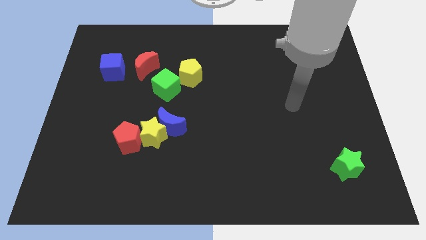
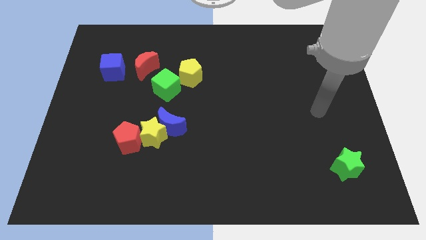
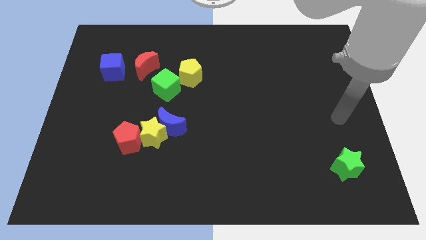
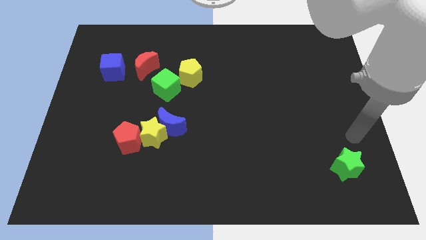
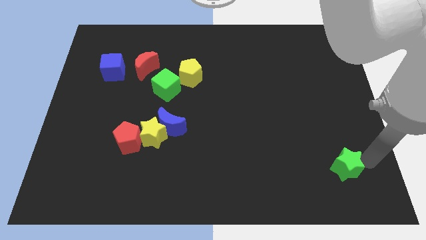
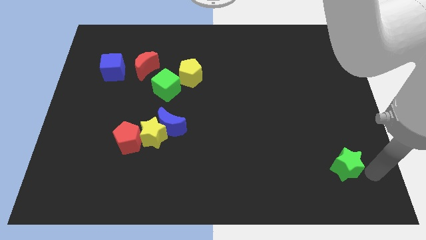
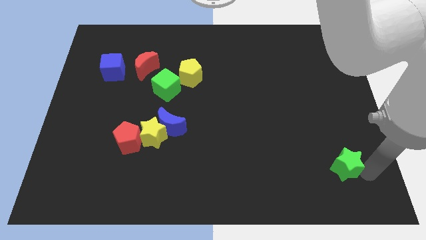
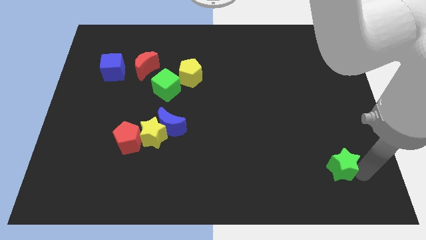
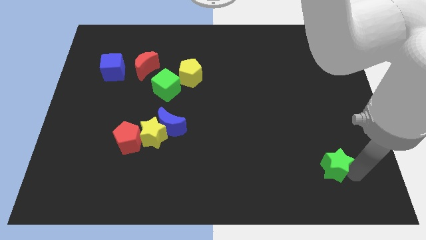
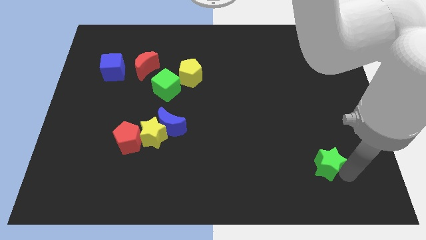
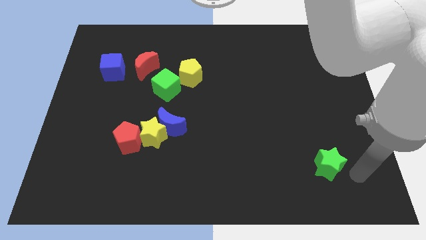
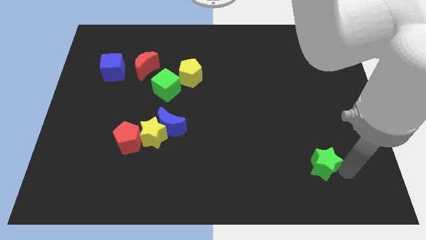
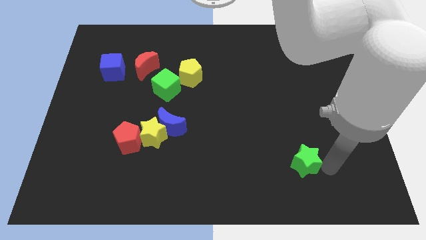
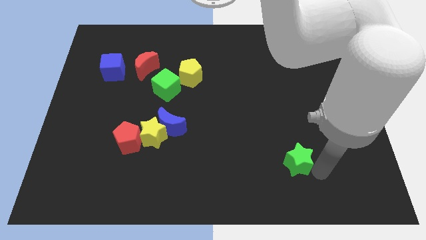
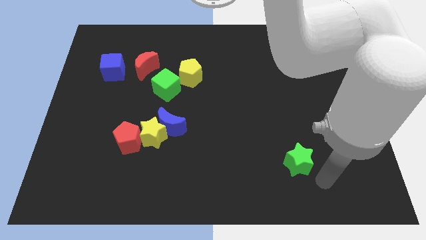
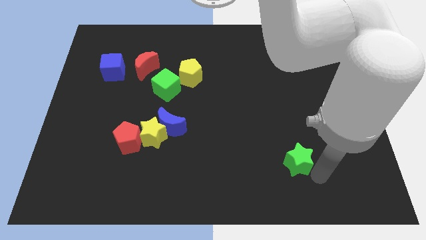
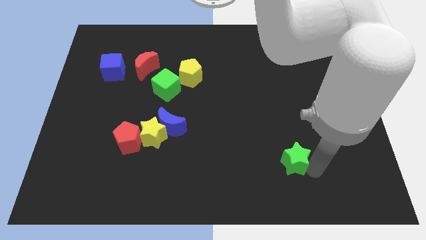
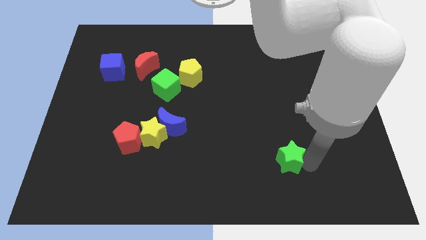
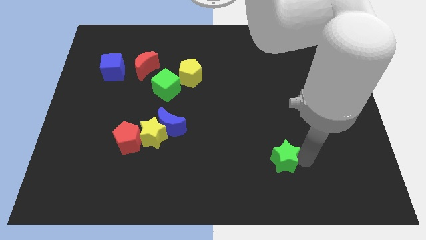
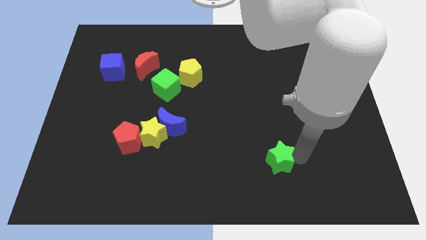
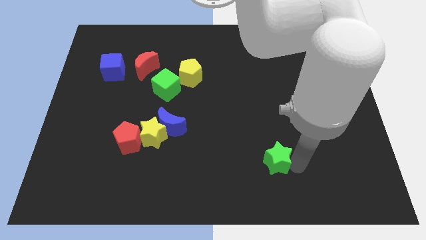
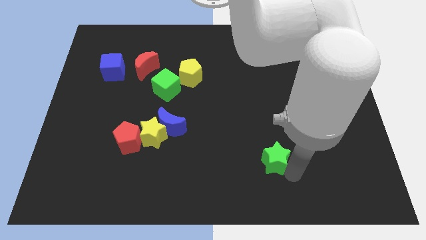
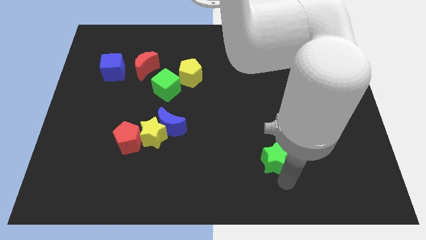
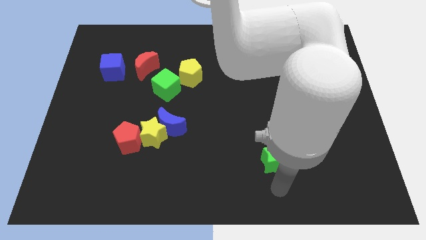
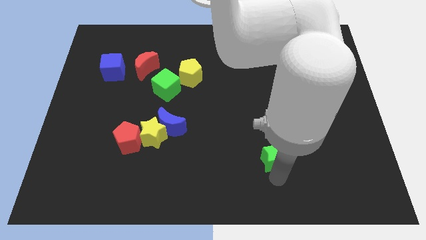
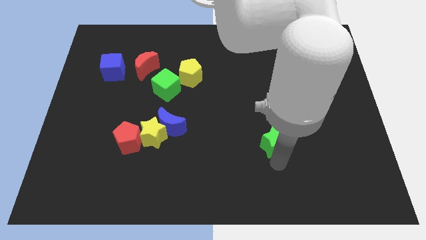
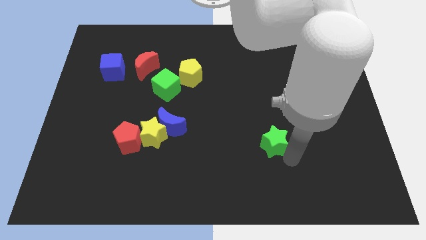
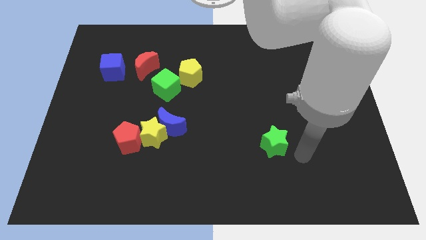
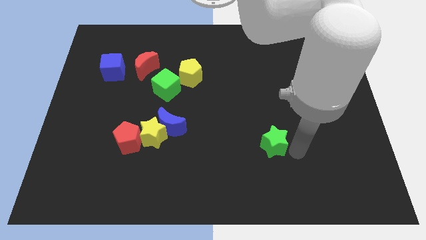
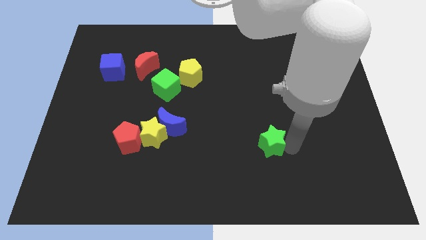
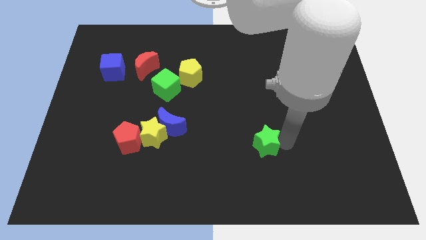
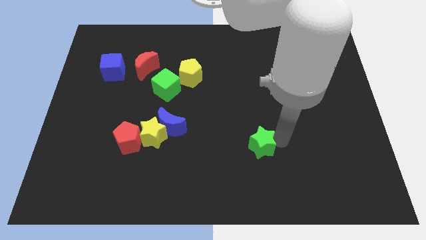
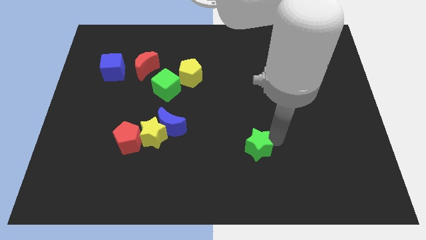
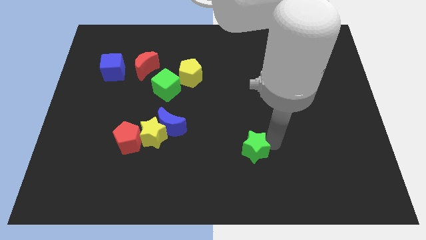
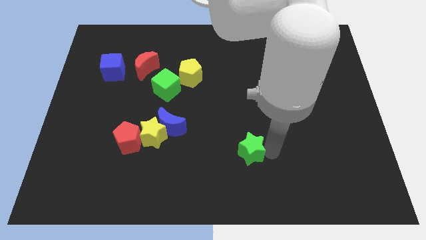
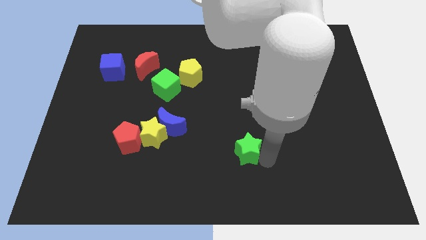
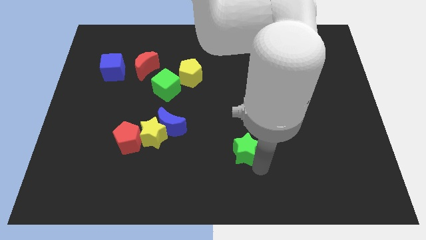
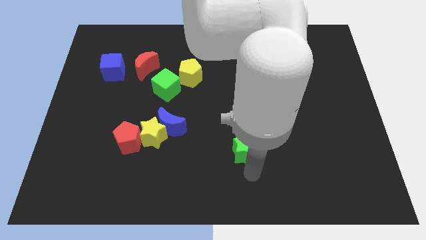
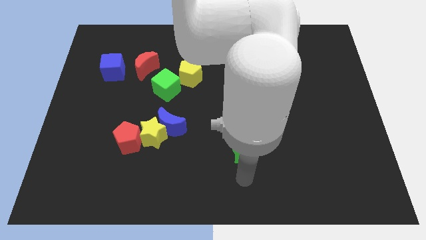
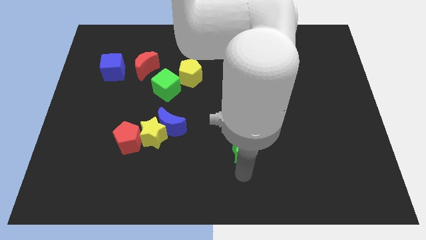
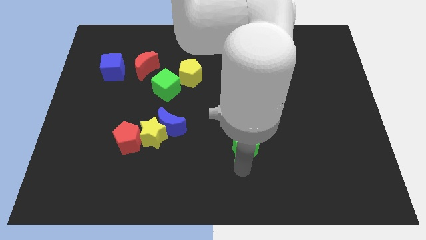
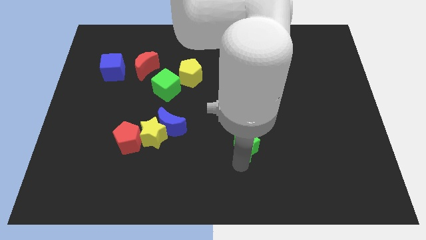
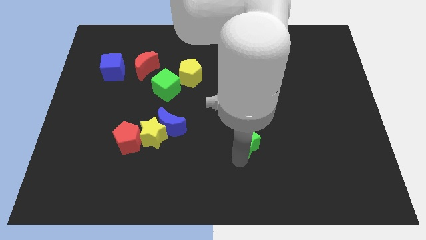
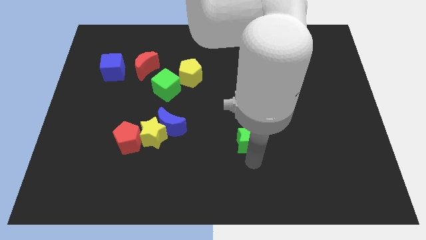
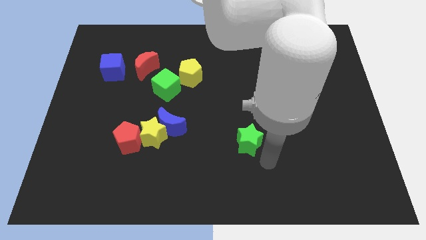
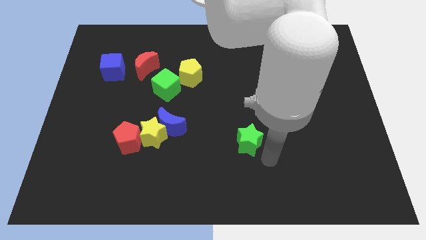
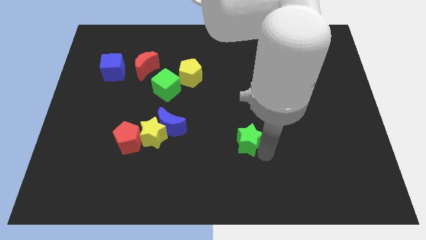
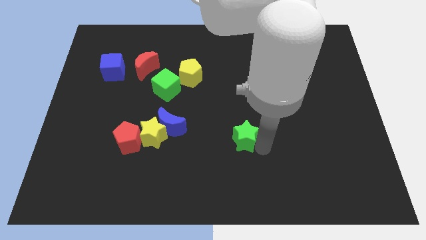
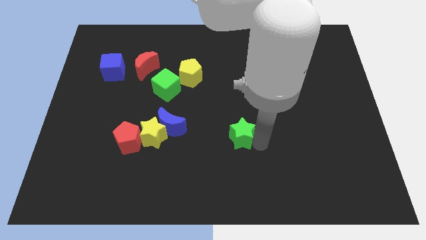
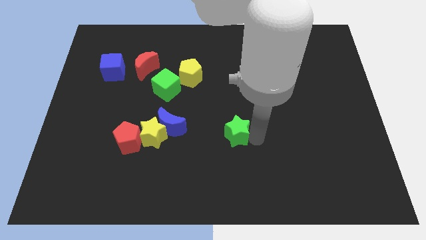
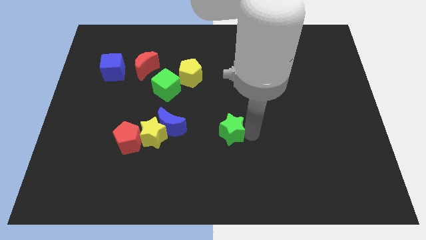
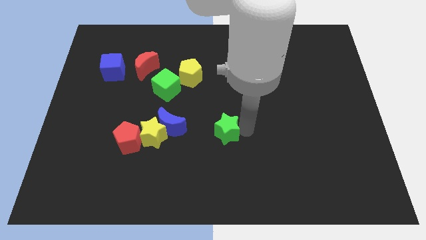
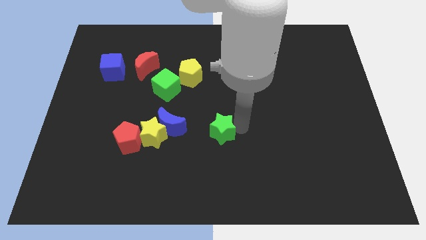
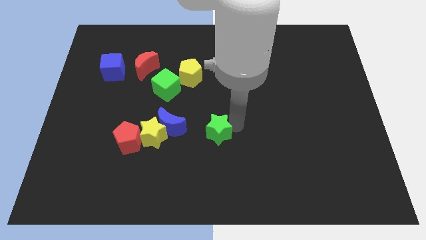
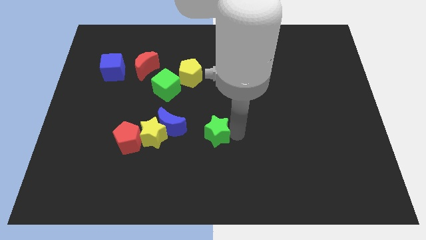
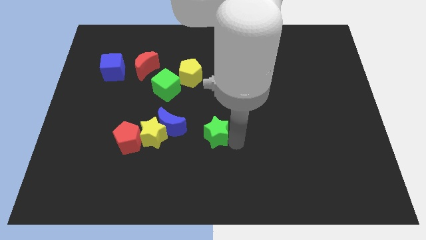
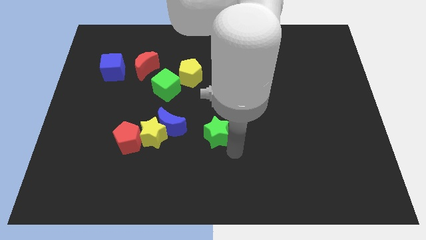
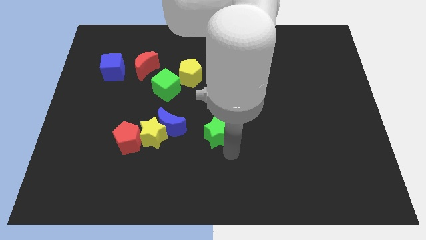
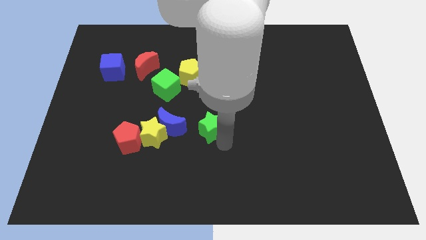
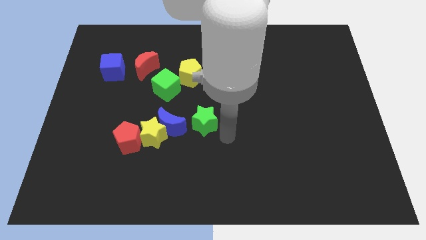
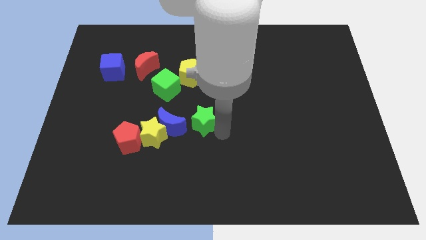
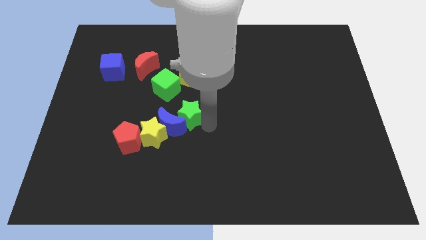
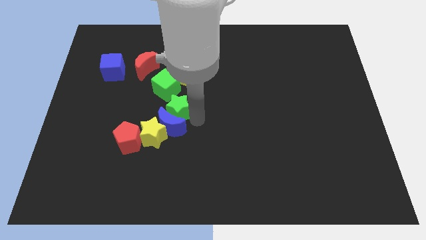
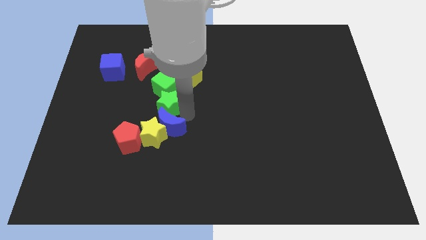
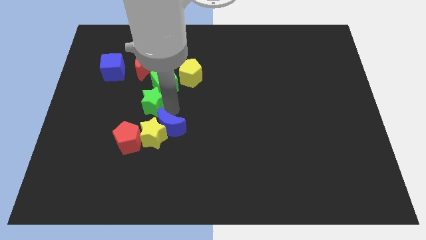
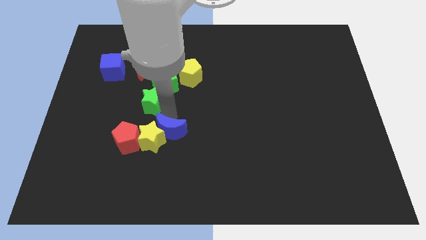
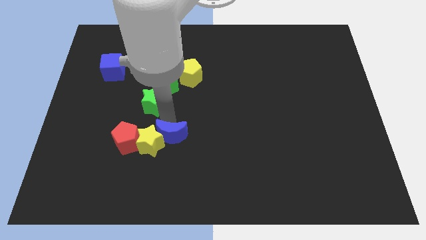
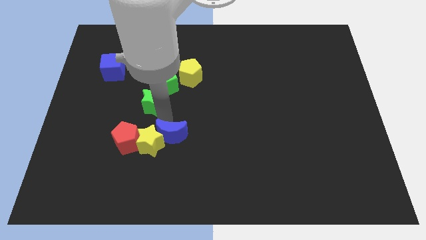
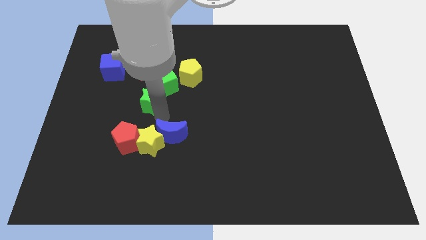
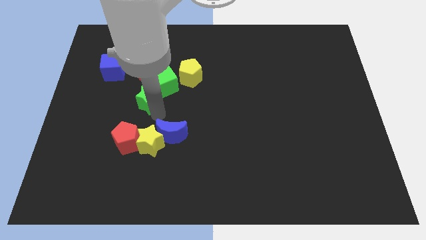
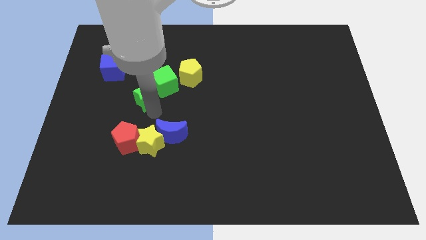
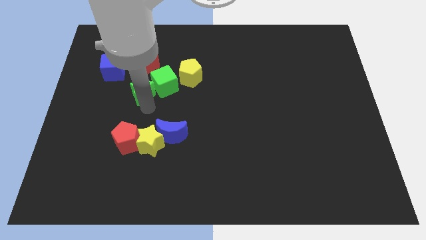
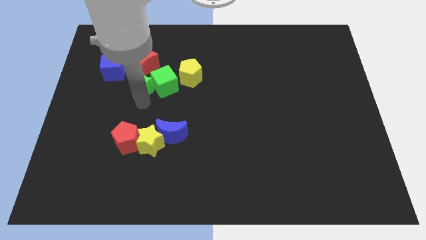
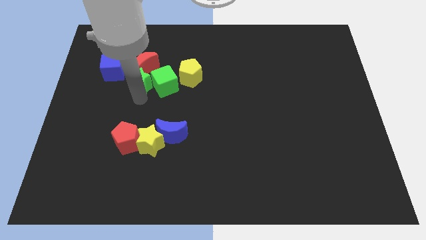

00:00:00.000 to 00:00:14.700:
push the green star to the red moon
